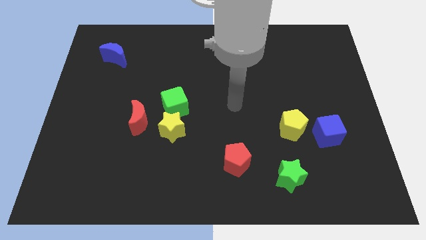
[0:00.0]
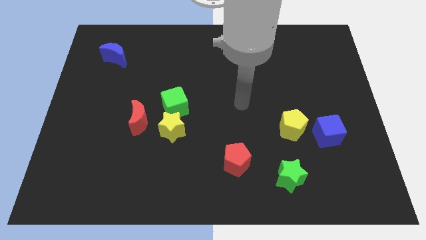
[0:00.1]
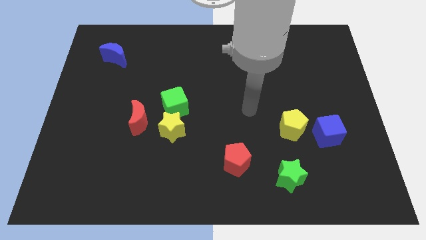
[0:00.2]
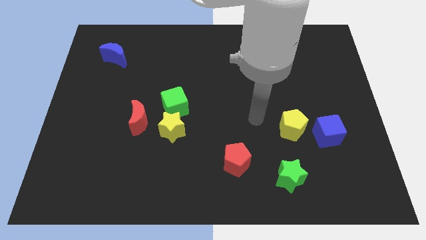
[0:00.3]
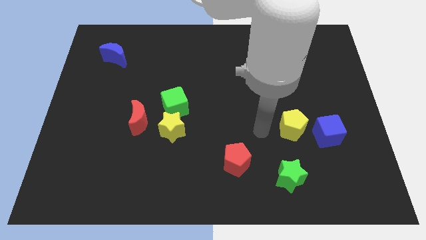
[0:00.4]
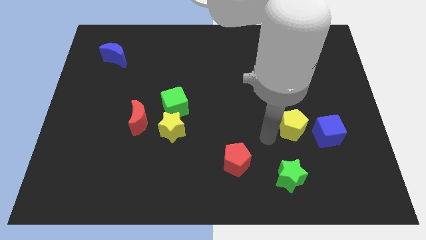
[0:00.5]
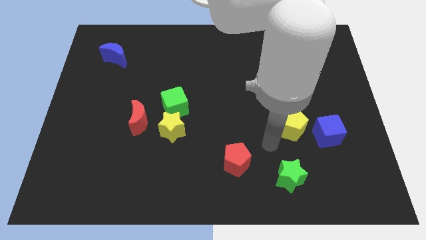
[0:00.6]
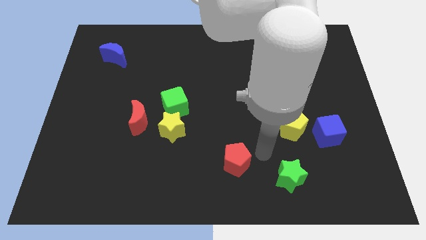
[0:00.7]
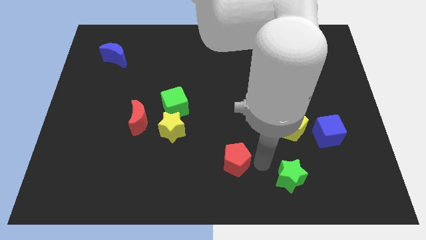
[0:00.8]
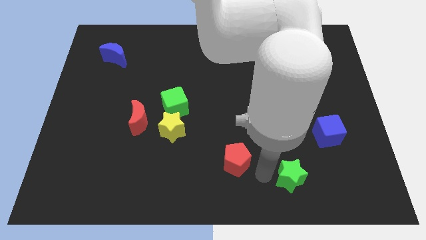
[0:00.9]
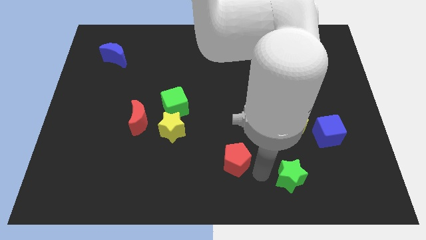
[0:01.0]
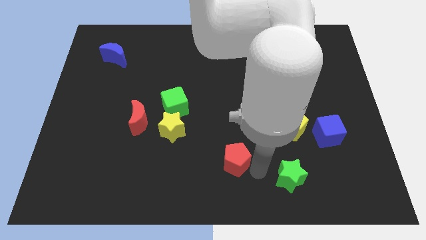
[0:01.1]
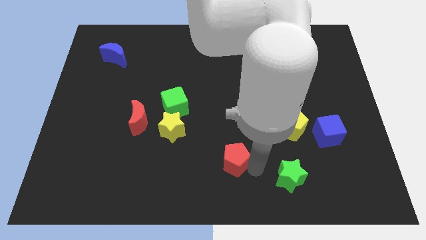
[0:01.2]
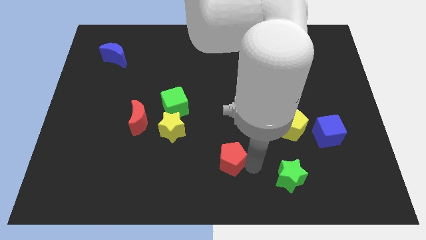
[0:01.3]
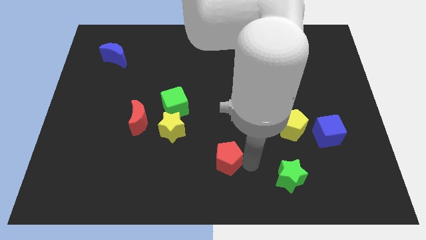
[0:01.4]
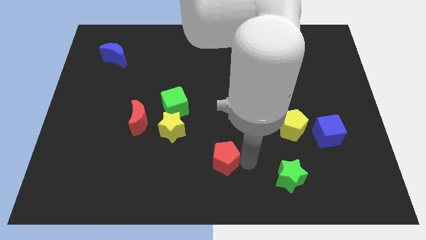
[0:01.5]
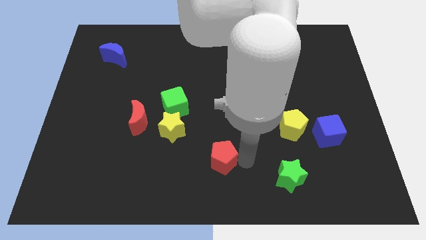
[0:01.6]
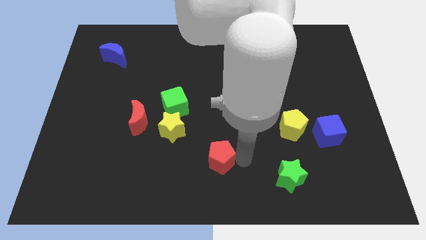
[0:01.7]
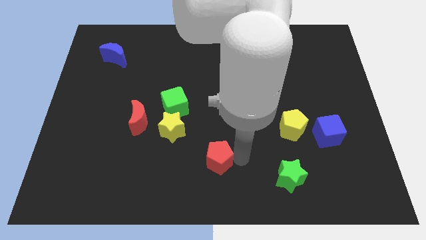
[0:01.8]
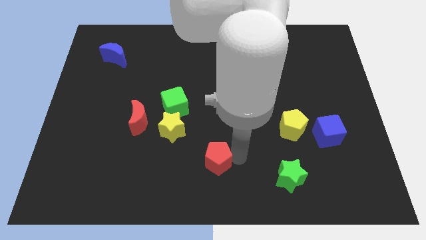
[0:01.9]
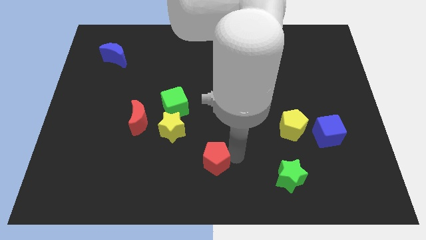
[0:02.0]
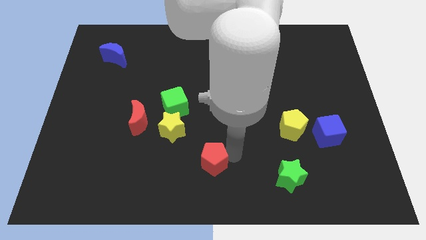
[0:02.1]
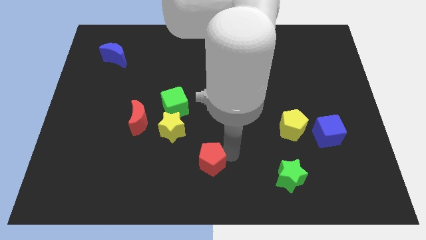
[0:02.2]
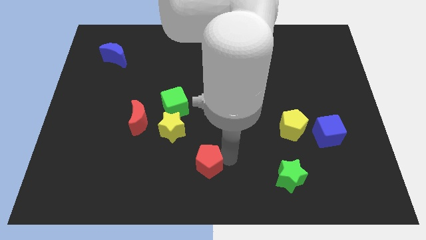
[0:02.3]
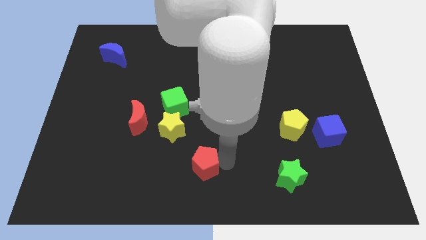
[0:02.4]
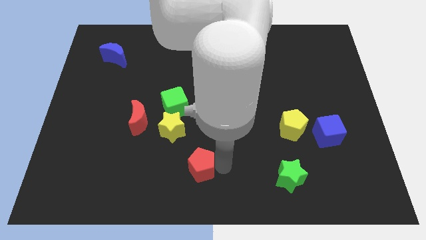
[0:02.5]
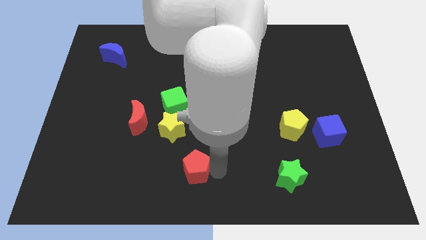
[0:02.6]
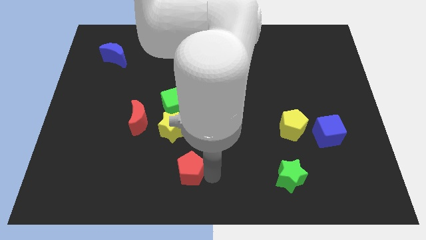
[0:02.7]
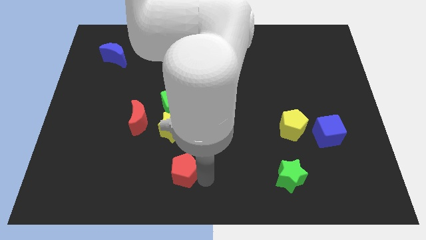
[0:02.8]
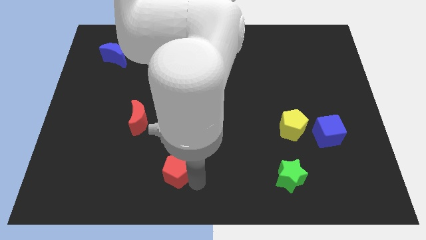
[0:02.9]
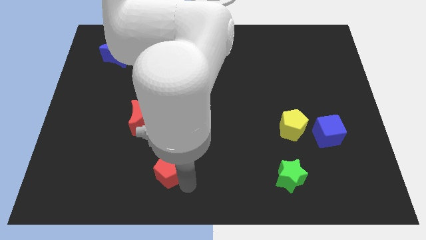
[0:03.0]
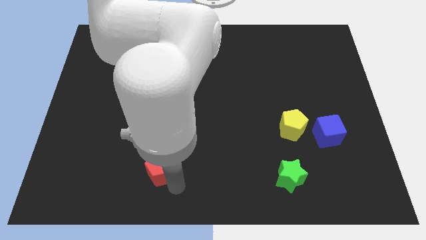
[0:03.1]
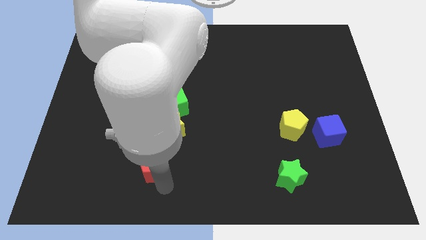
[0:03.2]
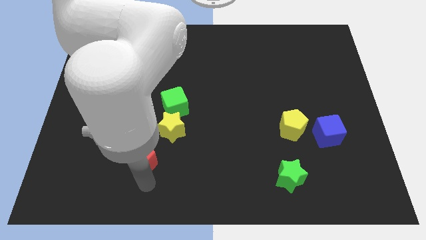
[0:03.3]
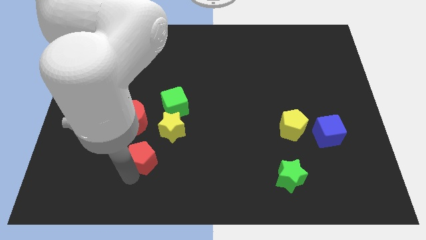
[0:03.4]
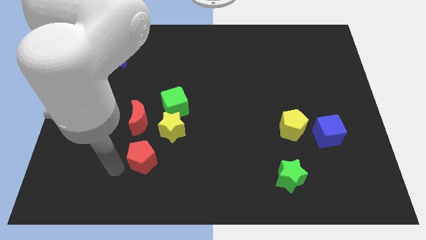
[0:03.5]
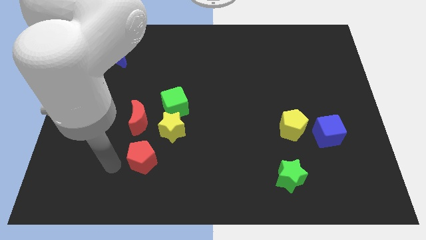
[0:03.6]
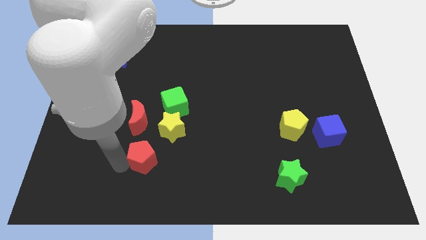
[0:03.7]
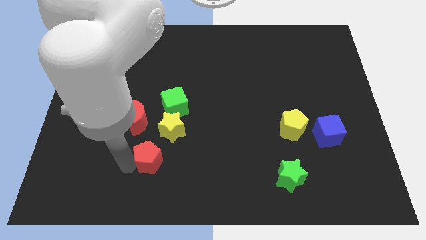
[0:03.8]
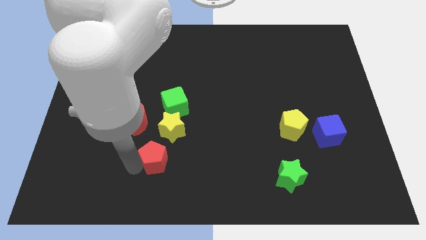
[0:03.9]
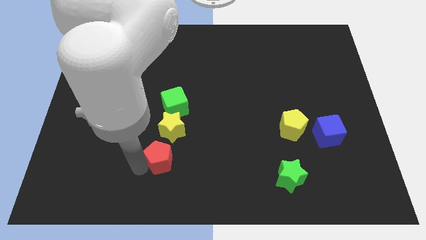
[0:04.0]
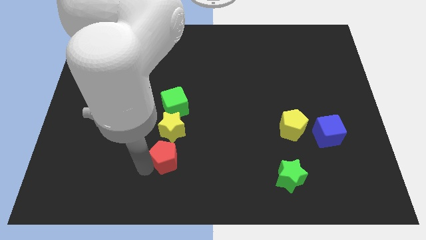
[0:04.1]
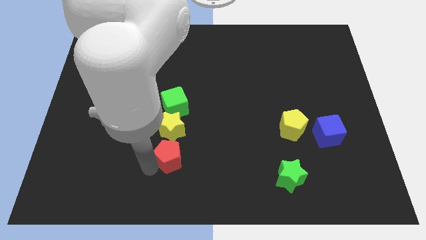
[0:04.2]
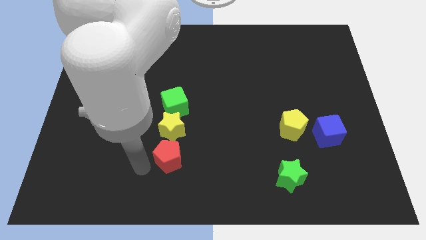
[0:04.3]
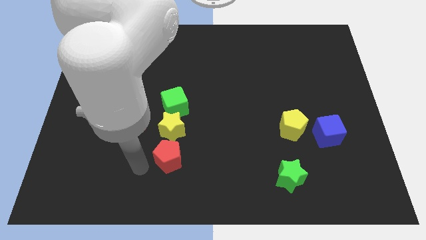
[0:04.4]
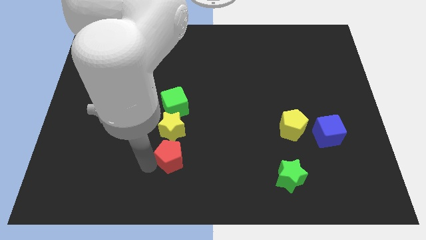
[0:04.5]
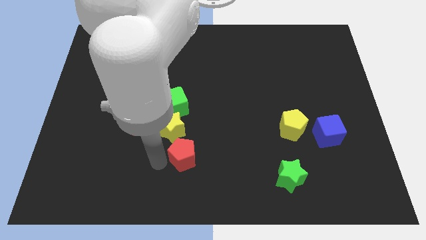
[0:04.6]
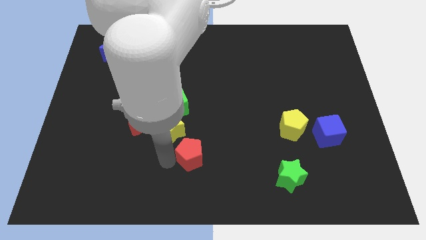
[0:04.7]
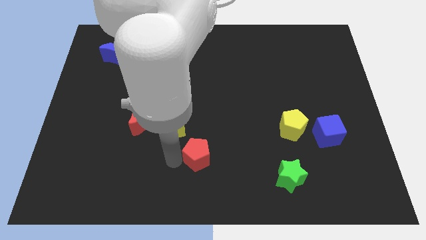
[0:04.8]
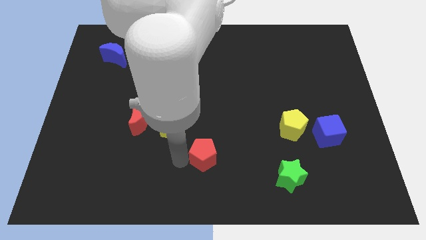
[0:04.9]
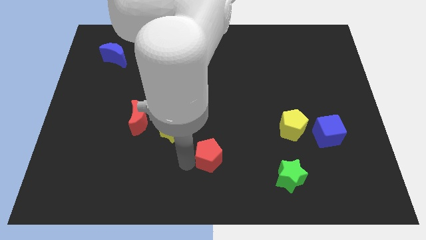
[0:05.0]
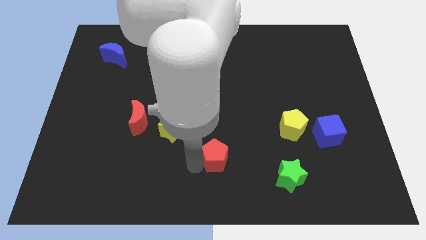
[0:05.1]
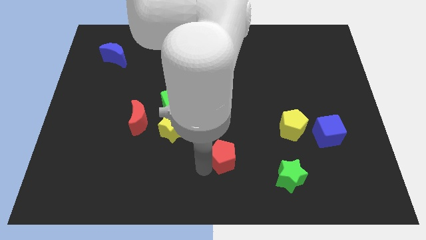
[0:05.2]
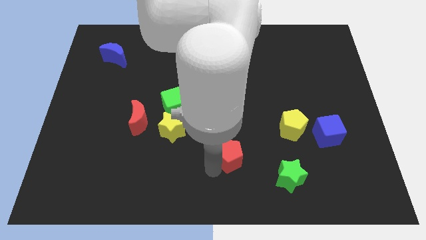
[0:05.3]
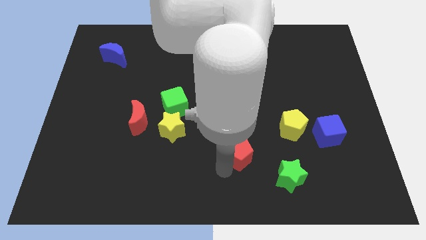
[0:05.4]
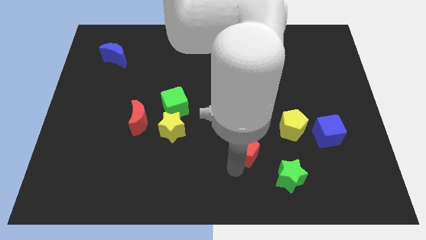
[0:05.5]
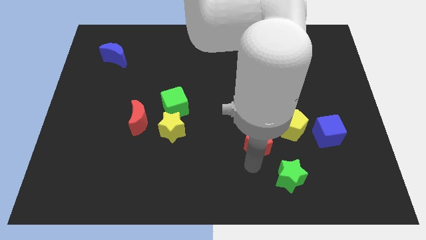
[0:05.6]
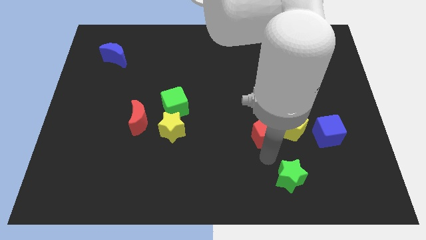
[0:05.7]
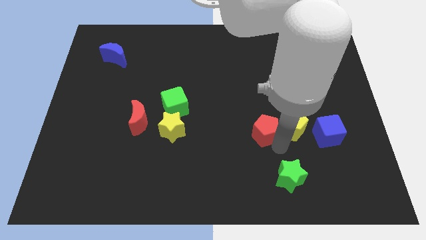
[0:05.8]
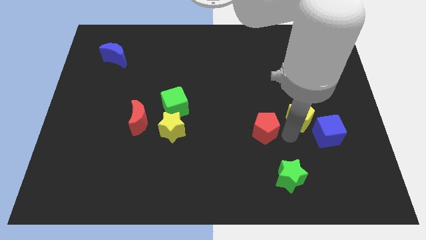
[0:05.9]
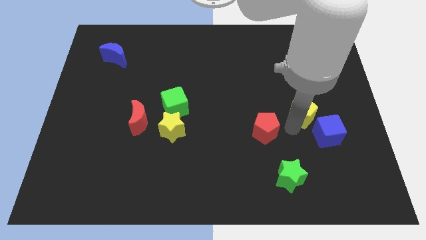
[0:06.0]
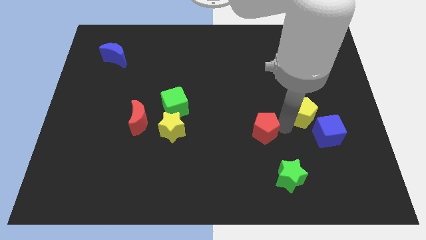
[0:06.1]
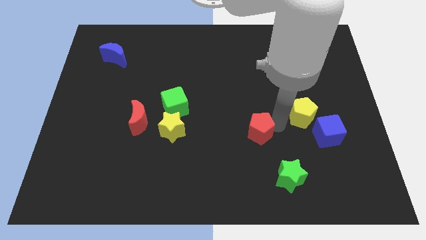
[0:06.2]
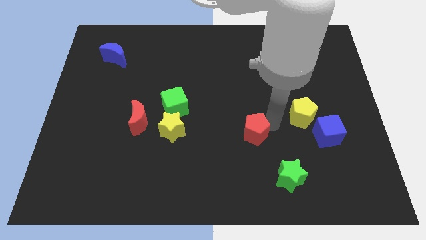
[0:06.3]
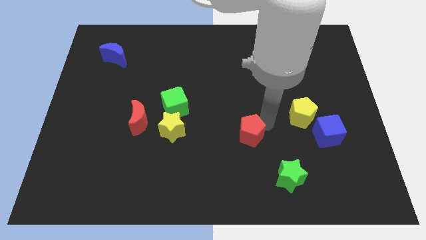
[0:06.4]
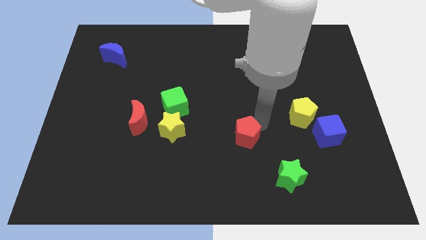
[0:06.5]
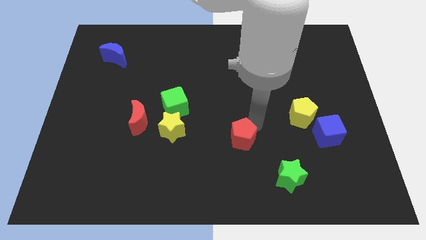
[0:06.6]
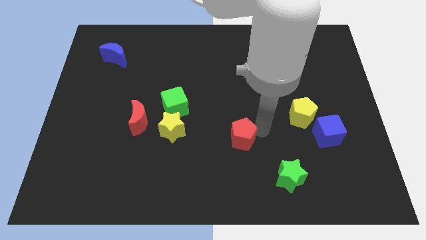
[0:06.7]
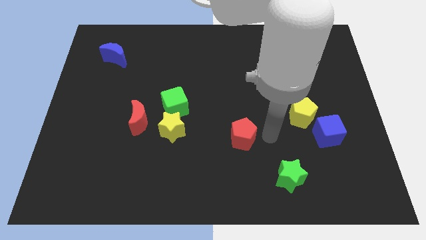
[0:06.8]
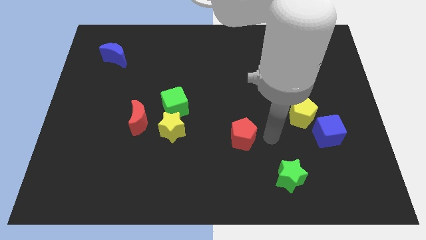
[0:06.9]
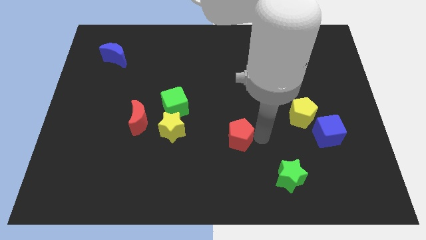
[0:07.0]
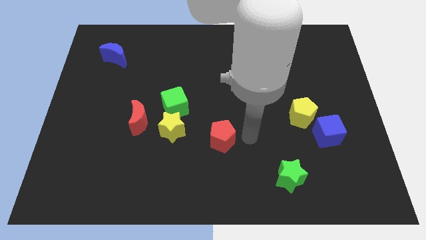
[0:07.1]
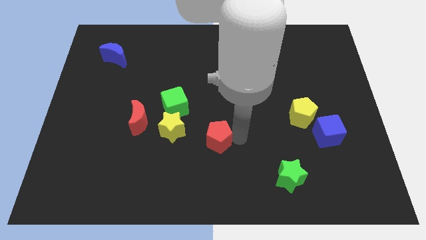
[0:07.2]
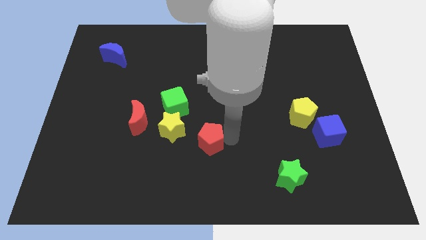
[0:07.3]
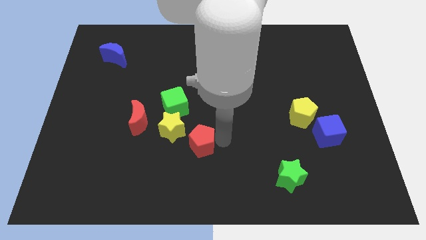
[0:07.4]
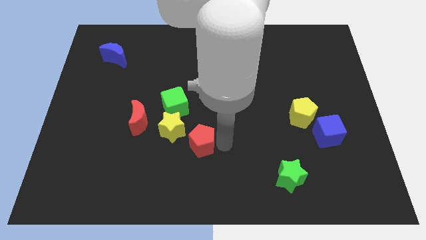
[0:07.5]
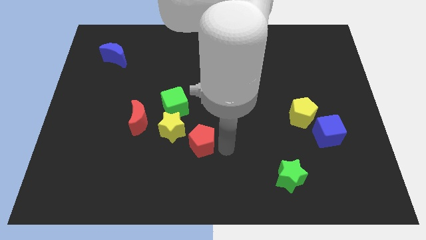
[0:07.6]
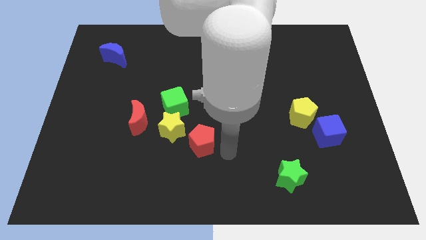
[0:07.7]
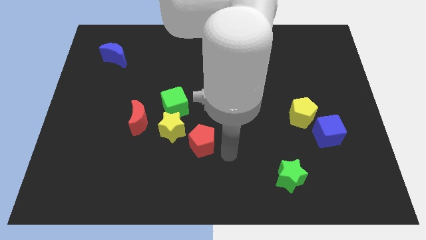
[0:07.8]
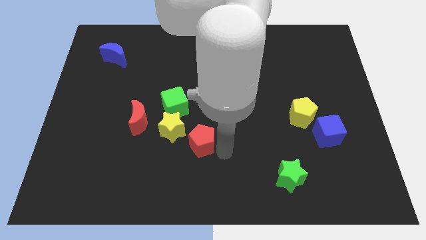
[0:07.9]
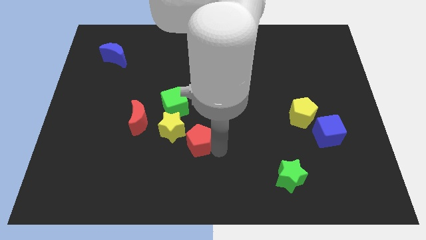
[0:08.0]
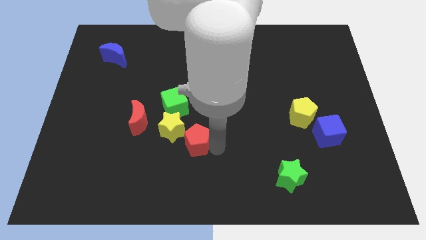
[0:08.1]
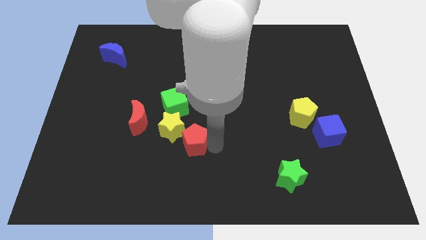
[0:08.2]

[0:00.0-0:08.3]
move the red pentagon towards the yellow star
